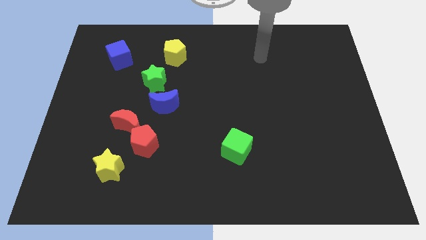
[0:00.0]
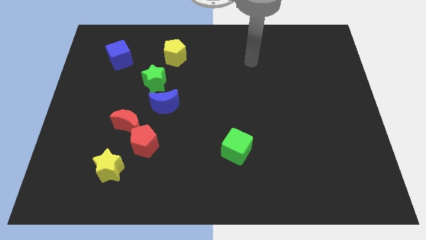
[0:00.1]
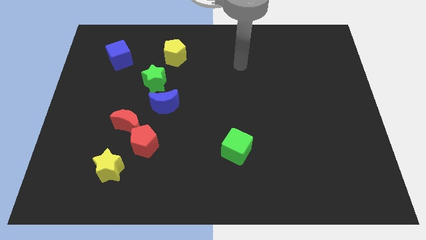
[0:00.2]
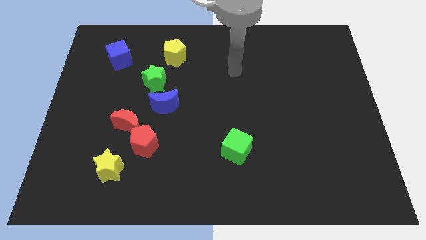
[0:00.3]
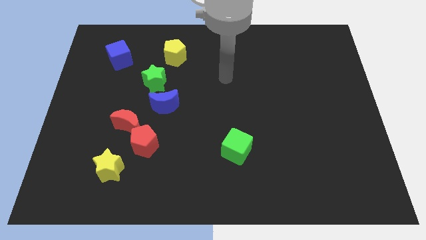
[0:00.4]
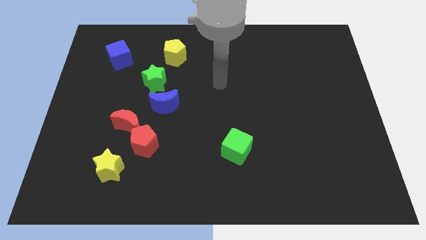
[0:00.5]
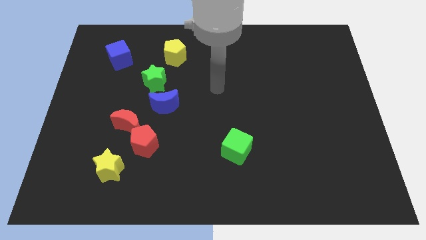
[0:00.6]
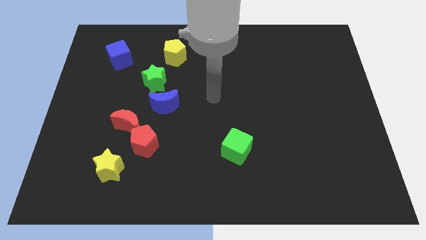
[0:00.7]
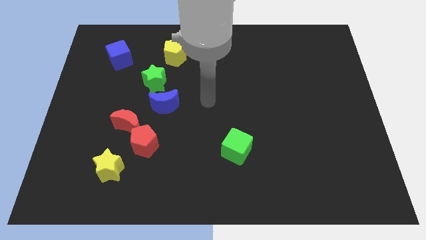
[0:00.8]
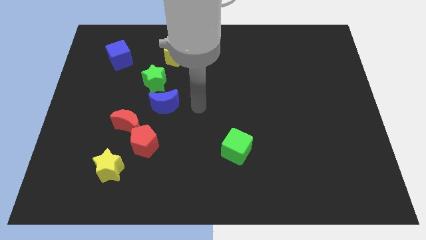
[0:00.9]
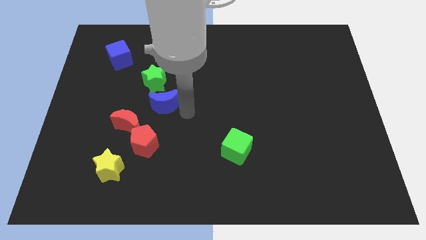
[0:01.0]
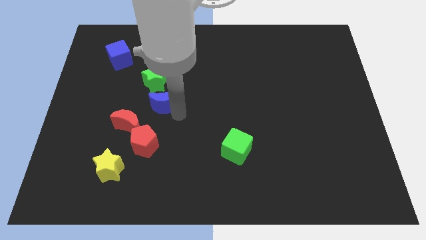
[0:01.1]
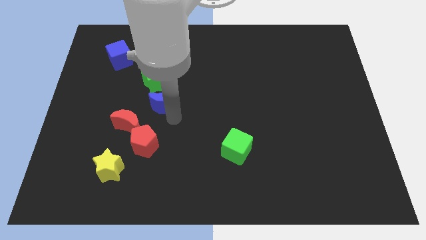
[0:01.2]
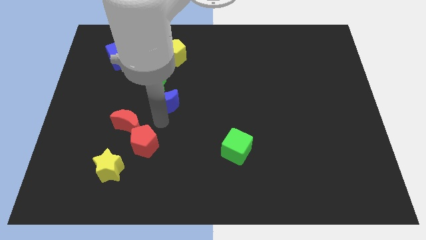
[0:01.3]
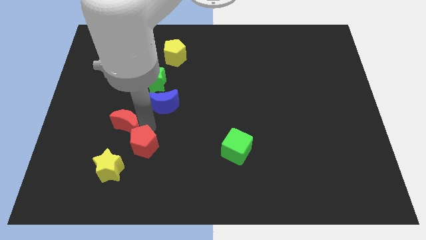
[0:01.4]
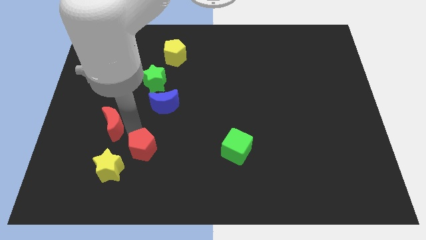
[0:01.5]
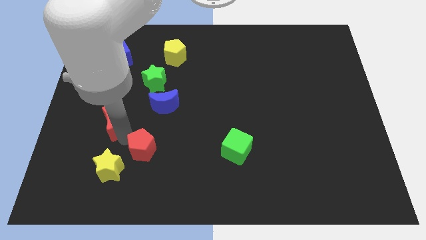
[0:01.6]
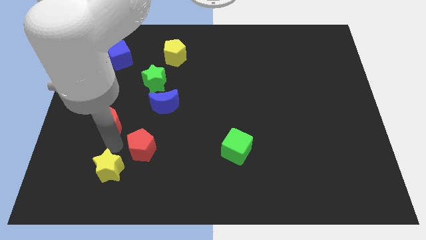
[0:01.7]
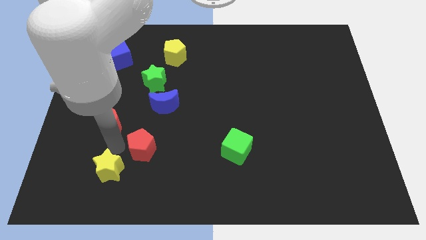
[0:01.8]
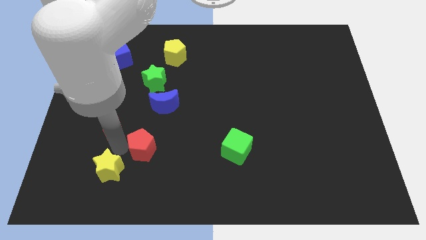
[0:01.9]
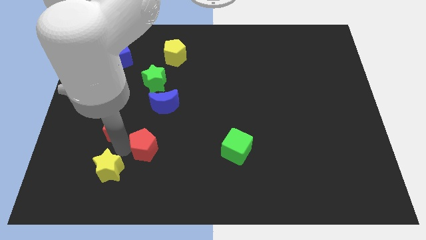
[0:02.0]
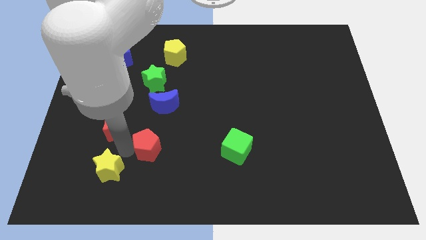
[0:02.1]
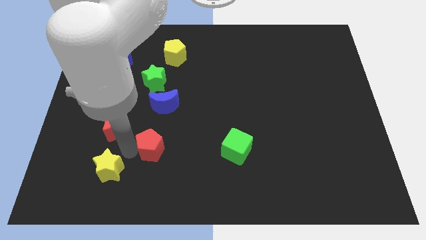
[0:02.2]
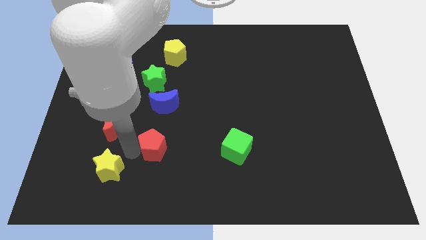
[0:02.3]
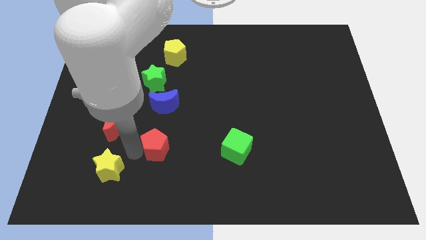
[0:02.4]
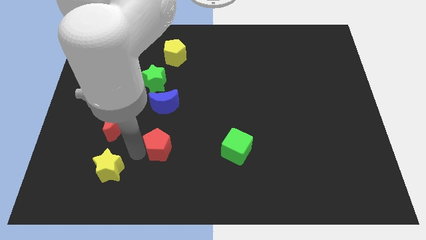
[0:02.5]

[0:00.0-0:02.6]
separate the red pentagon from the red moon and yellow star

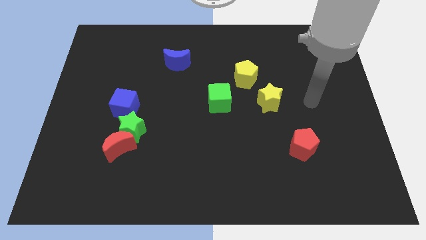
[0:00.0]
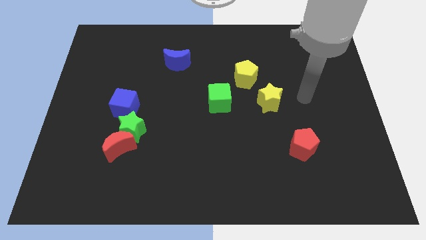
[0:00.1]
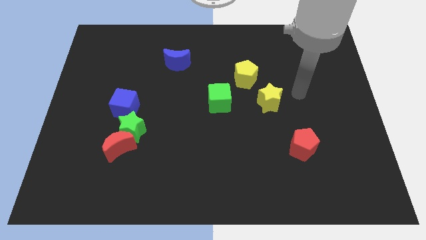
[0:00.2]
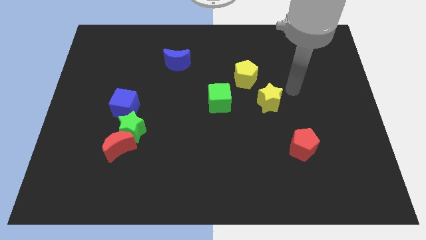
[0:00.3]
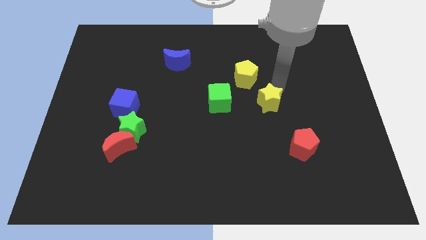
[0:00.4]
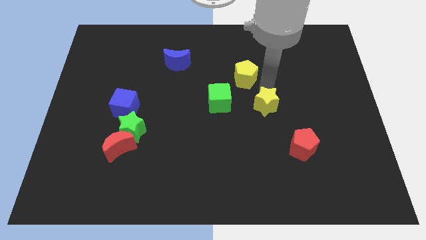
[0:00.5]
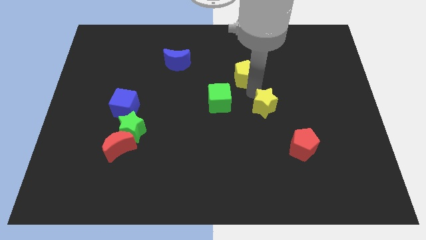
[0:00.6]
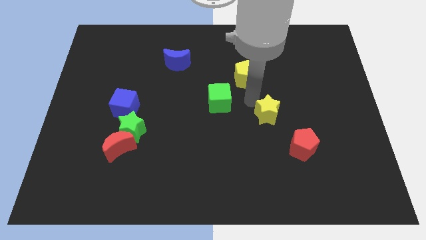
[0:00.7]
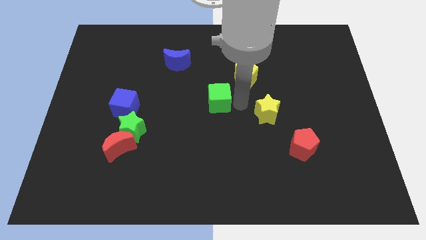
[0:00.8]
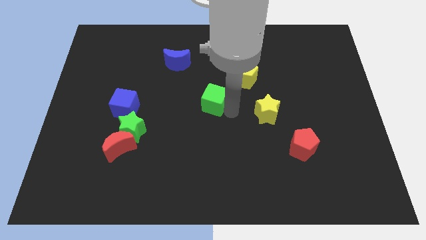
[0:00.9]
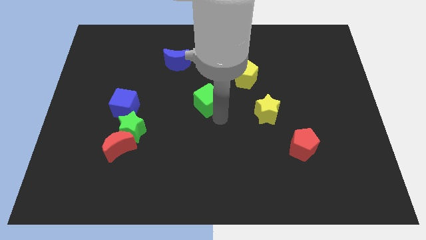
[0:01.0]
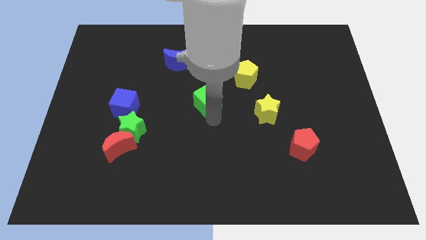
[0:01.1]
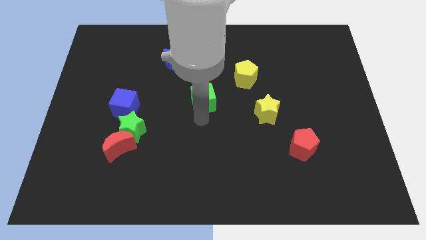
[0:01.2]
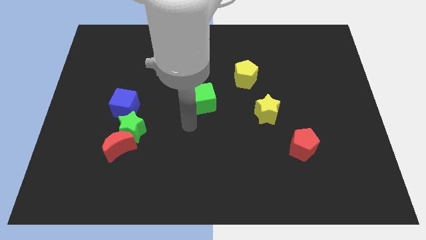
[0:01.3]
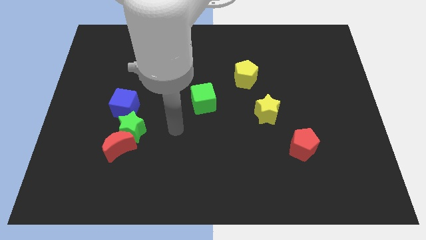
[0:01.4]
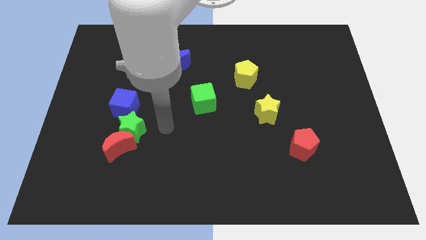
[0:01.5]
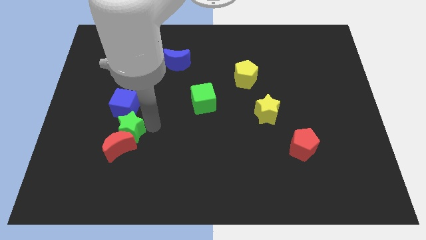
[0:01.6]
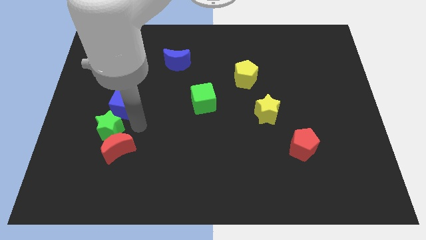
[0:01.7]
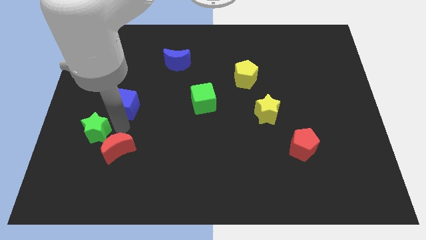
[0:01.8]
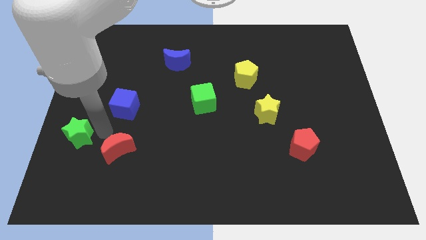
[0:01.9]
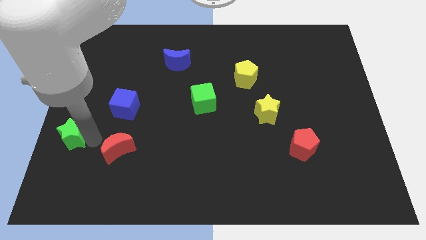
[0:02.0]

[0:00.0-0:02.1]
pull the red moon apart from the green star

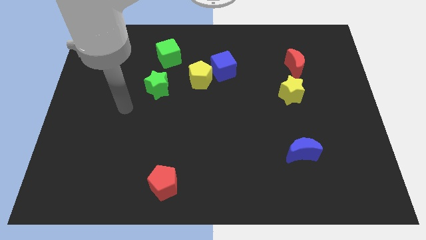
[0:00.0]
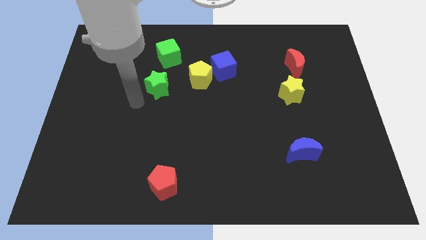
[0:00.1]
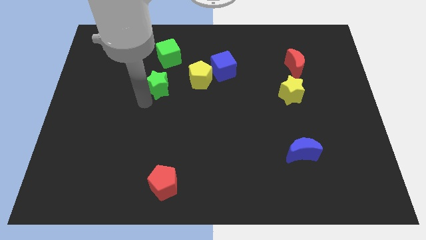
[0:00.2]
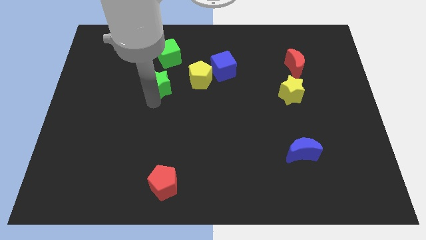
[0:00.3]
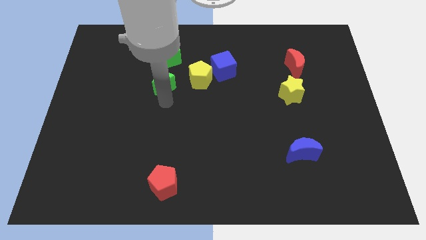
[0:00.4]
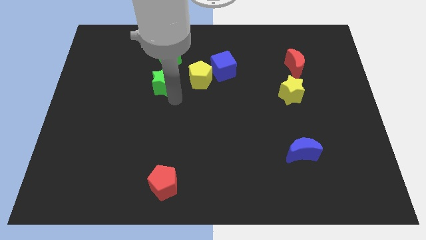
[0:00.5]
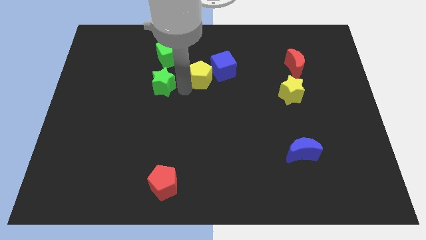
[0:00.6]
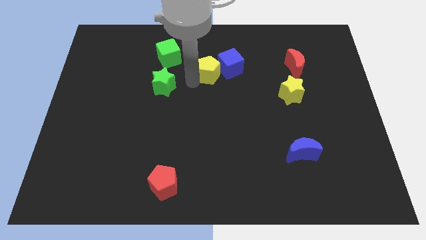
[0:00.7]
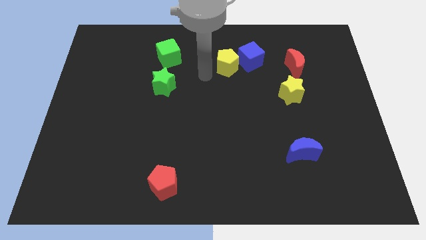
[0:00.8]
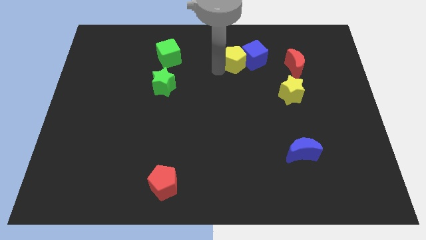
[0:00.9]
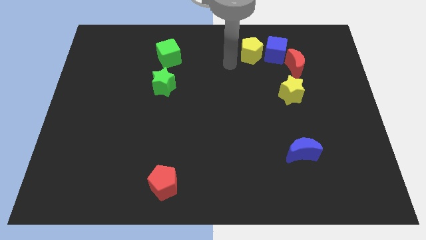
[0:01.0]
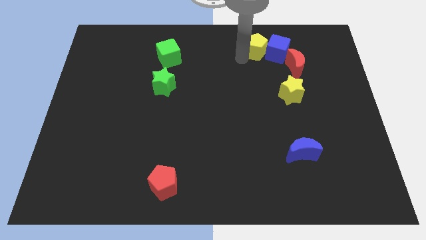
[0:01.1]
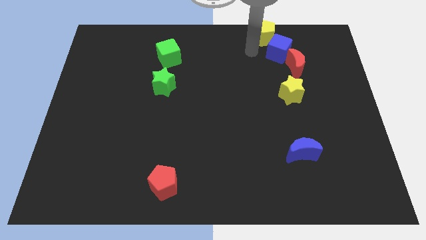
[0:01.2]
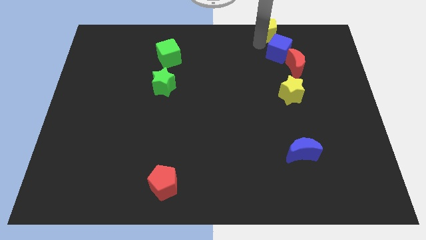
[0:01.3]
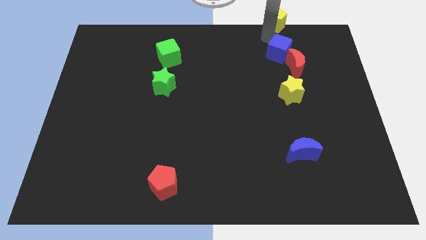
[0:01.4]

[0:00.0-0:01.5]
move the blue cube away from the yellow pentagon

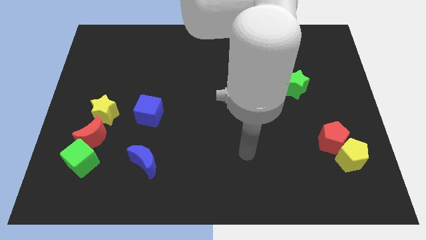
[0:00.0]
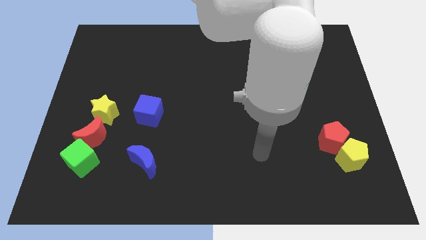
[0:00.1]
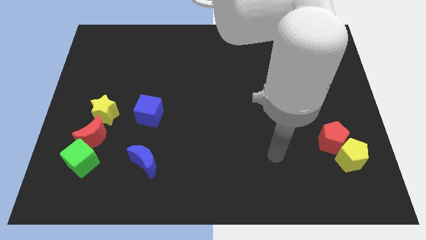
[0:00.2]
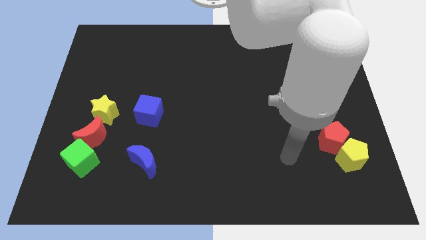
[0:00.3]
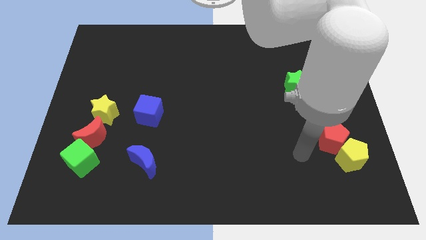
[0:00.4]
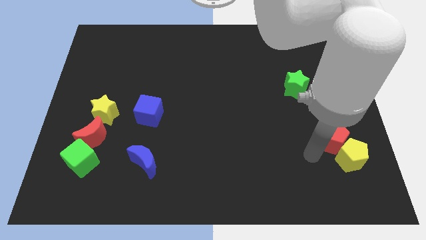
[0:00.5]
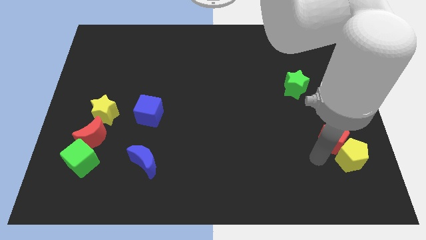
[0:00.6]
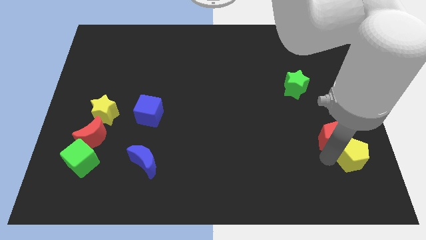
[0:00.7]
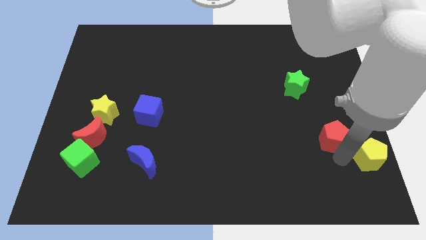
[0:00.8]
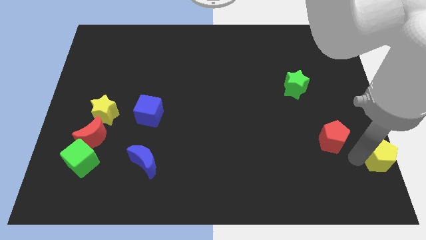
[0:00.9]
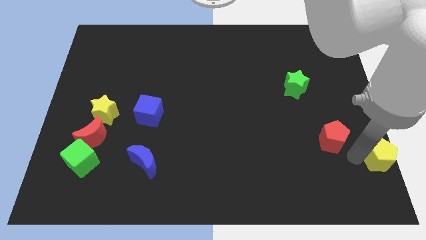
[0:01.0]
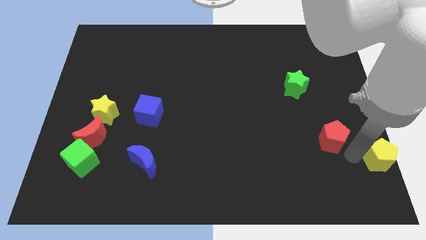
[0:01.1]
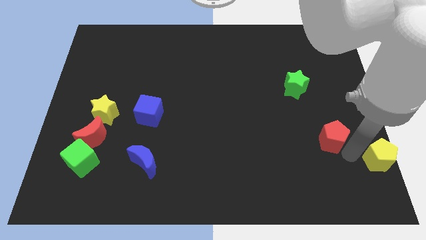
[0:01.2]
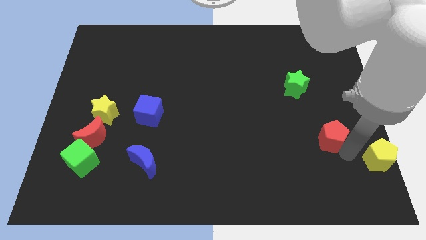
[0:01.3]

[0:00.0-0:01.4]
pull the red pentagon apart from the yellow pentagon

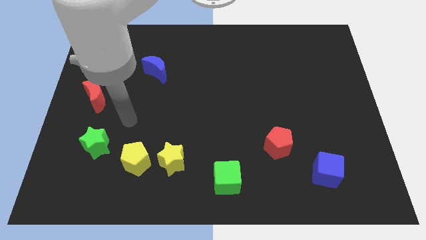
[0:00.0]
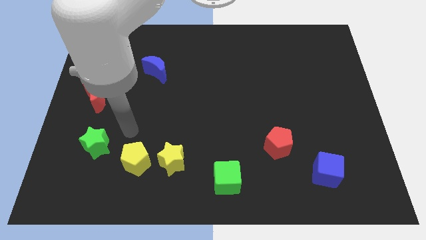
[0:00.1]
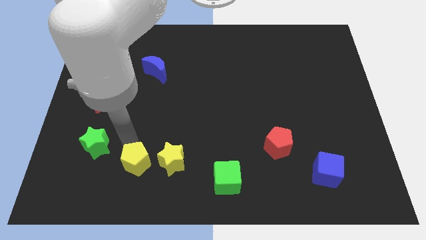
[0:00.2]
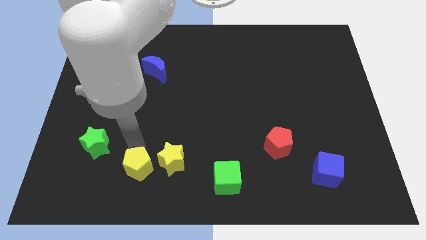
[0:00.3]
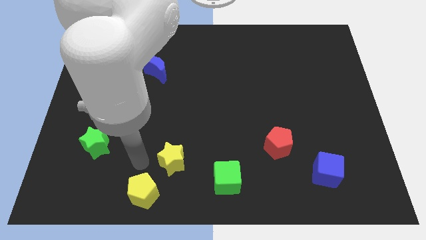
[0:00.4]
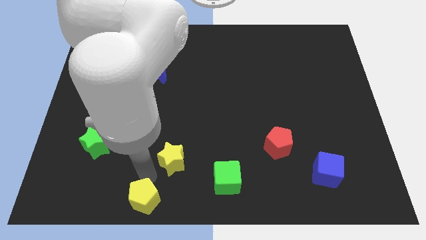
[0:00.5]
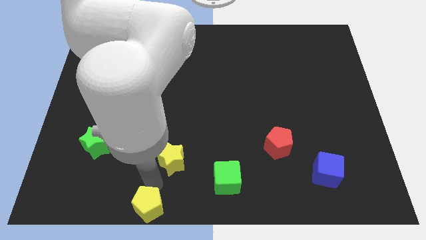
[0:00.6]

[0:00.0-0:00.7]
move the yellow star away from the yellow pentagon

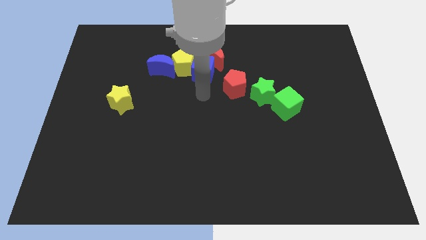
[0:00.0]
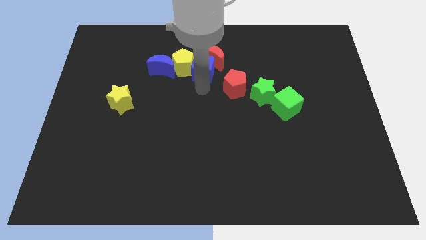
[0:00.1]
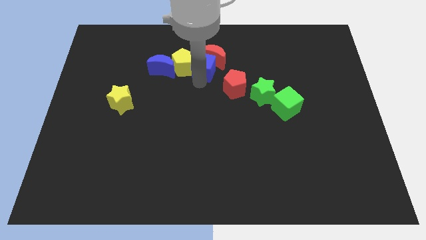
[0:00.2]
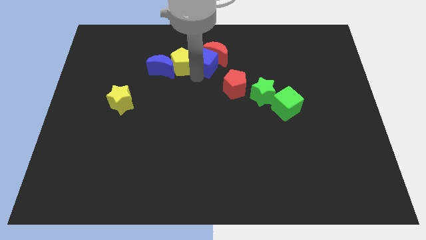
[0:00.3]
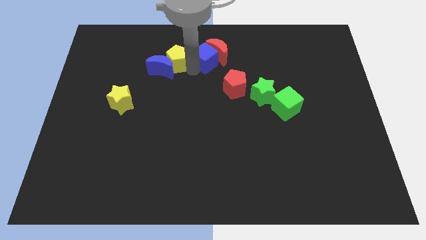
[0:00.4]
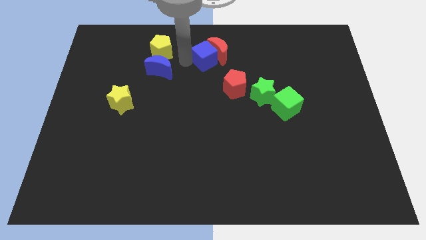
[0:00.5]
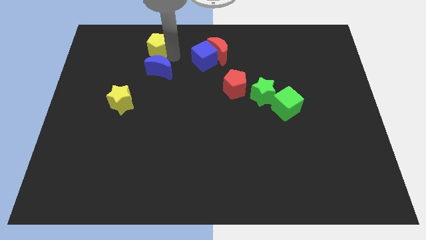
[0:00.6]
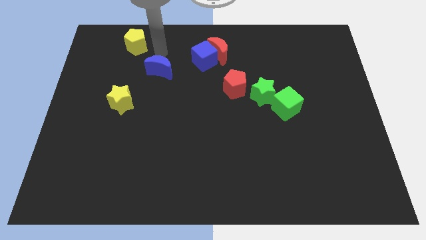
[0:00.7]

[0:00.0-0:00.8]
move the blue moon away from the yellow pentagon
